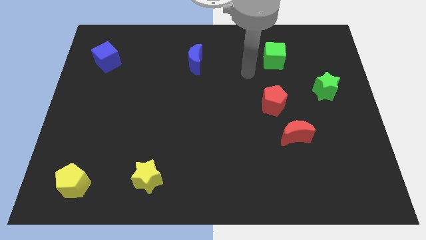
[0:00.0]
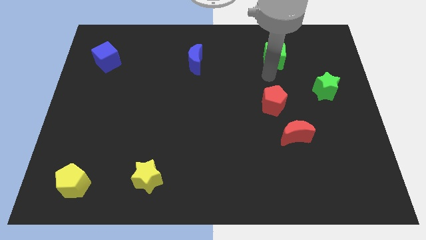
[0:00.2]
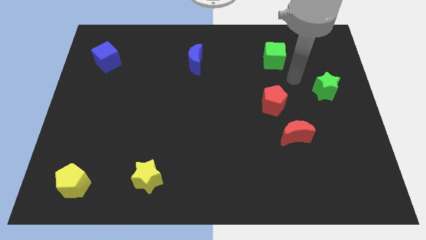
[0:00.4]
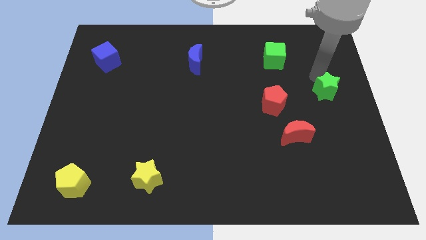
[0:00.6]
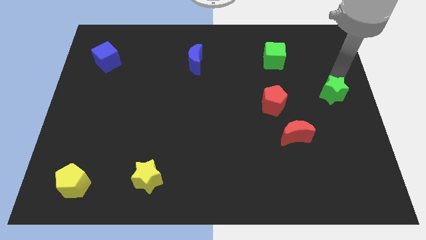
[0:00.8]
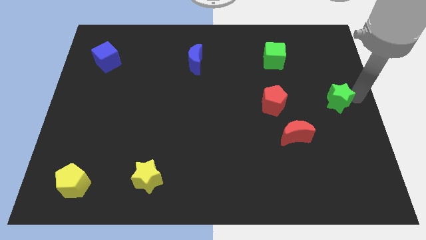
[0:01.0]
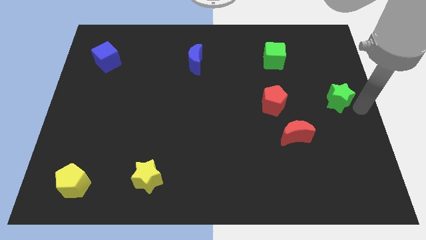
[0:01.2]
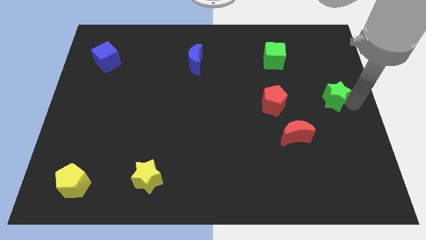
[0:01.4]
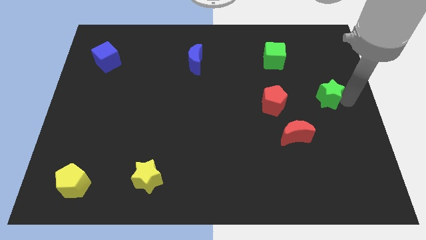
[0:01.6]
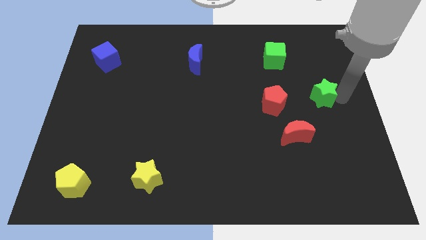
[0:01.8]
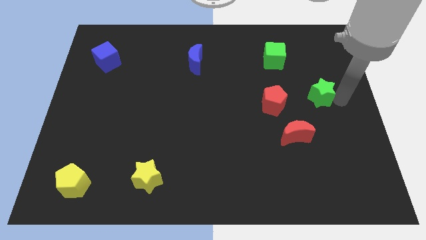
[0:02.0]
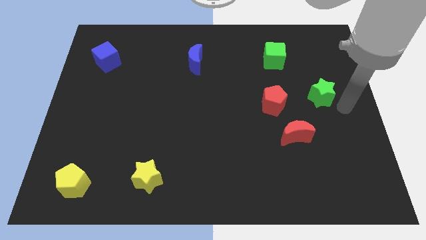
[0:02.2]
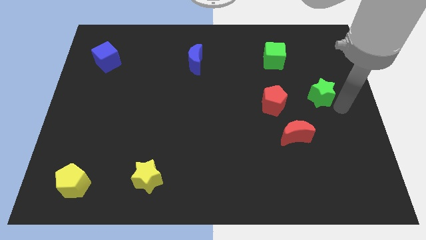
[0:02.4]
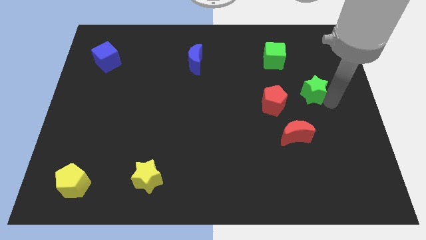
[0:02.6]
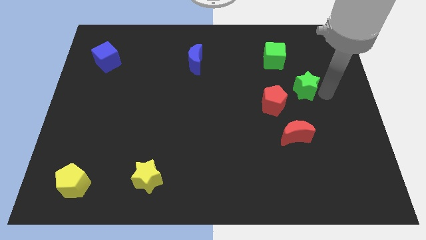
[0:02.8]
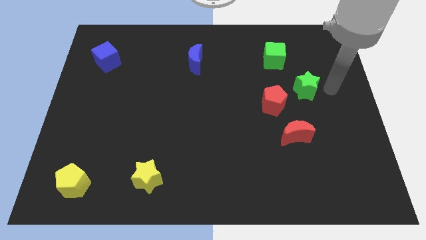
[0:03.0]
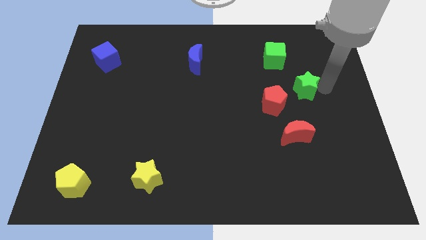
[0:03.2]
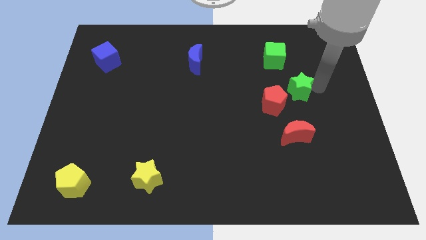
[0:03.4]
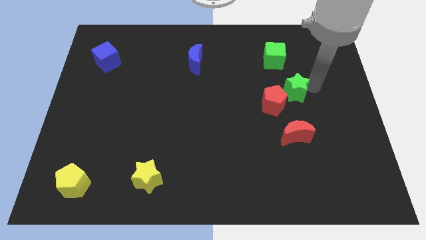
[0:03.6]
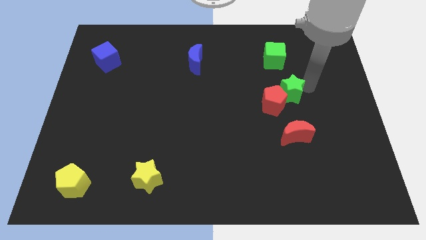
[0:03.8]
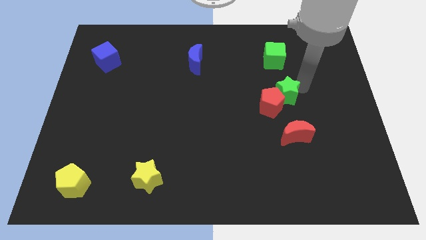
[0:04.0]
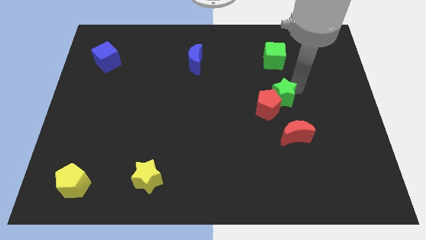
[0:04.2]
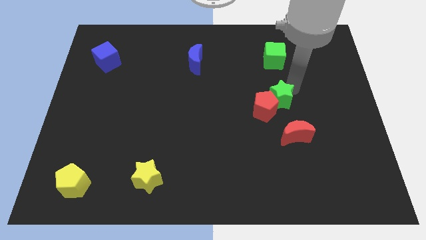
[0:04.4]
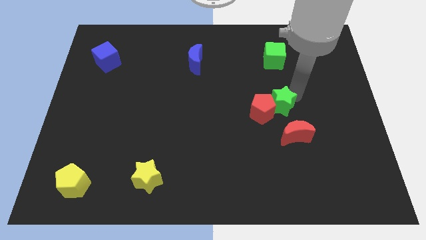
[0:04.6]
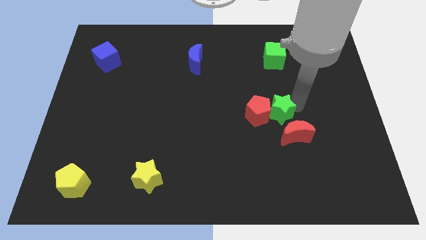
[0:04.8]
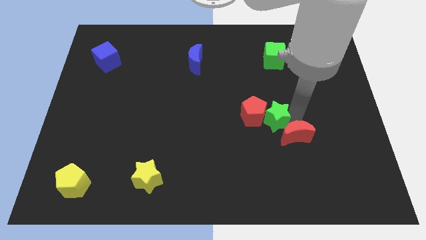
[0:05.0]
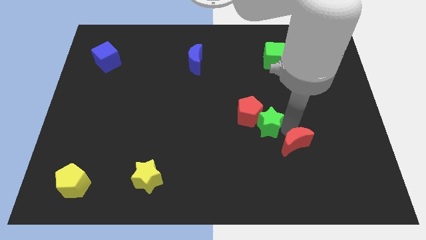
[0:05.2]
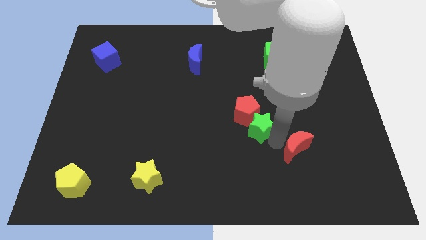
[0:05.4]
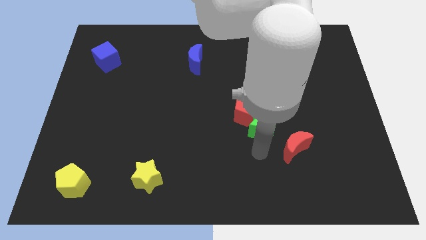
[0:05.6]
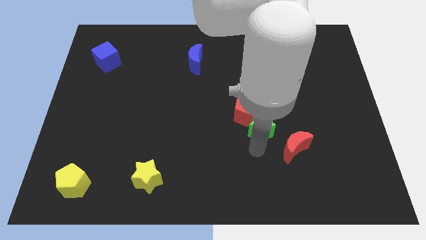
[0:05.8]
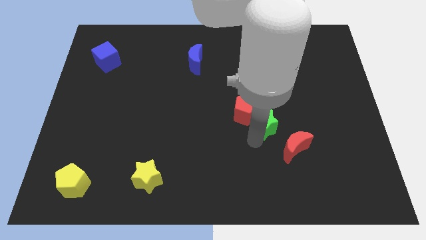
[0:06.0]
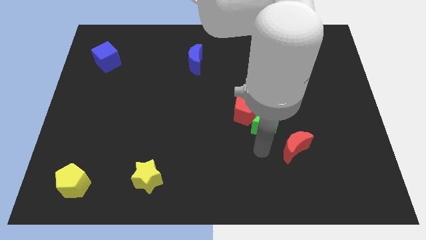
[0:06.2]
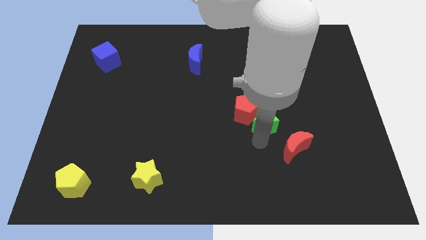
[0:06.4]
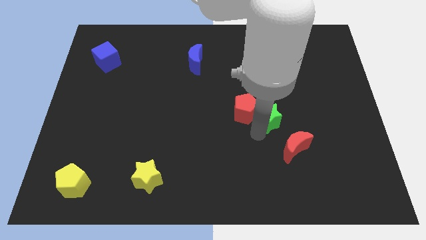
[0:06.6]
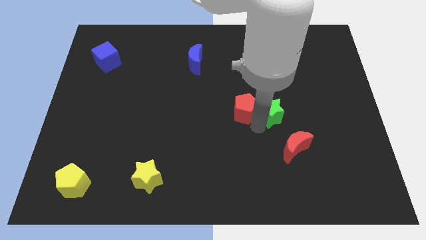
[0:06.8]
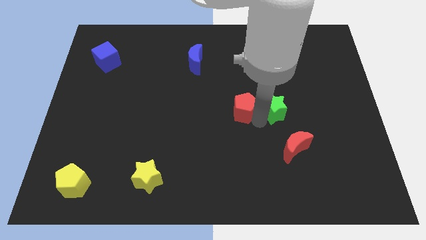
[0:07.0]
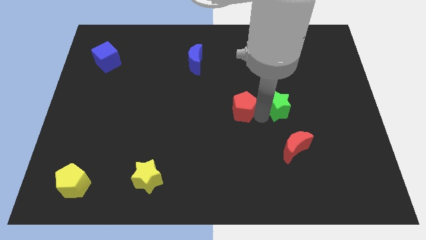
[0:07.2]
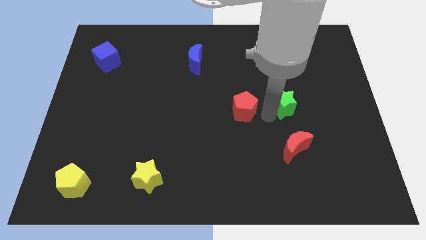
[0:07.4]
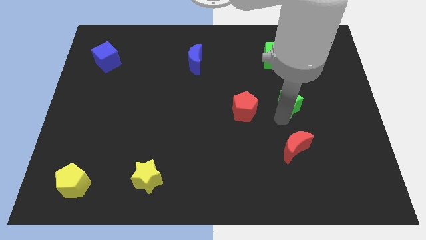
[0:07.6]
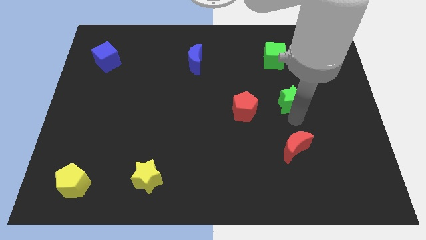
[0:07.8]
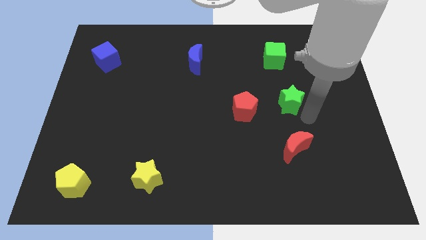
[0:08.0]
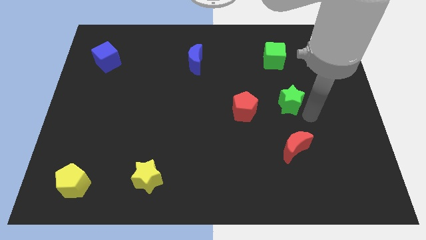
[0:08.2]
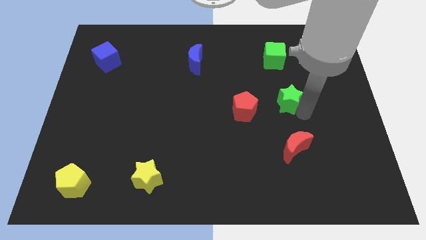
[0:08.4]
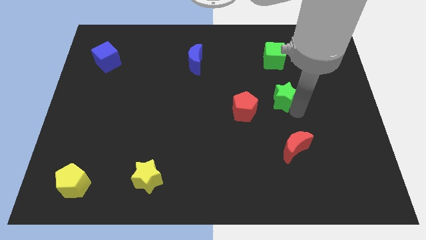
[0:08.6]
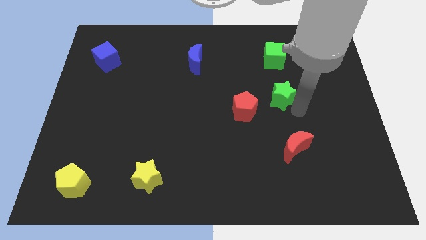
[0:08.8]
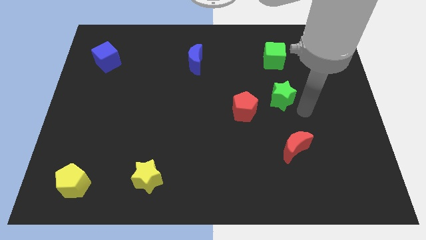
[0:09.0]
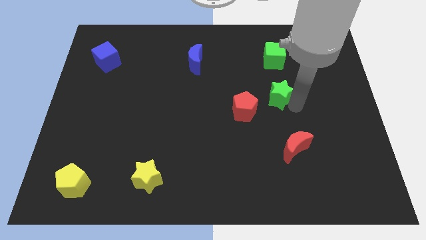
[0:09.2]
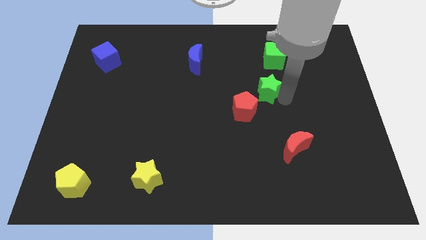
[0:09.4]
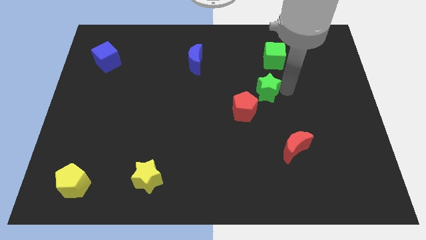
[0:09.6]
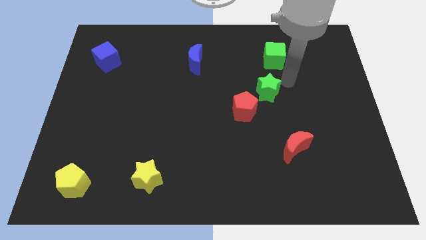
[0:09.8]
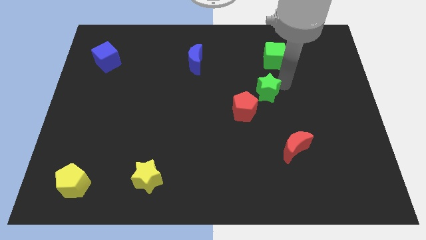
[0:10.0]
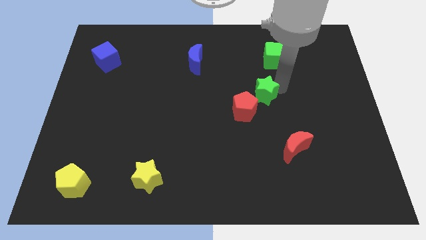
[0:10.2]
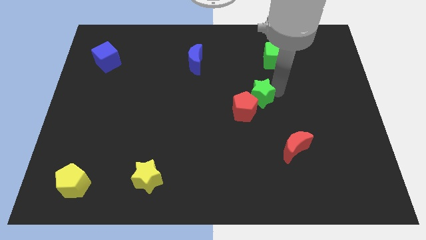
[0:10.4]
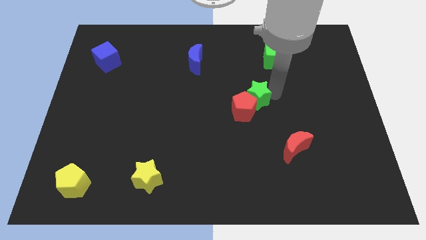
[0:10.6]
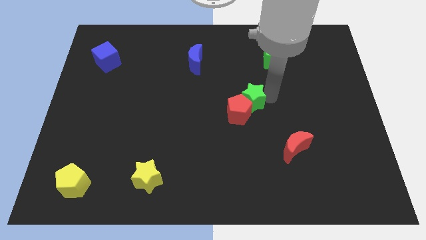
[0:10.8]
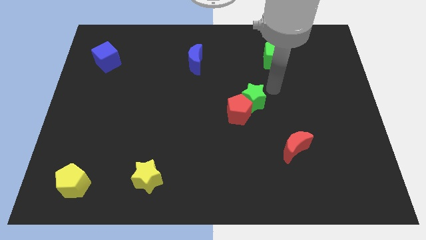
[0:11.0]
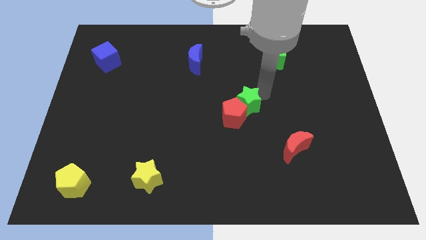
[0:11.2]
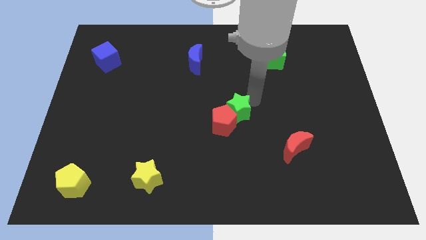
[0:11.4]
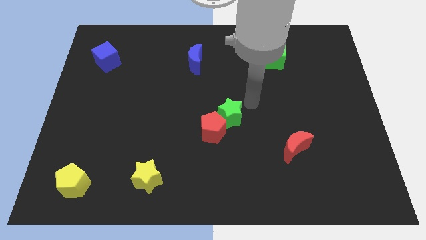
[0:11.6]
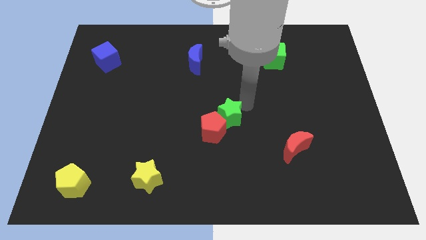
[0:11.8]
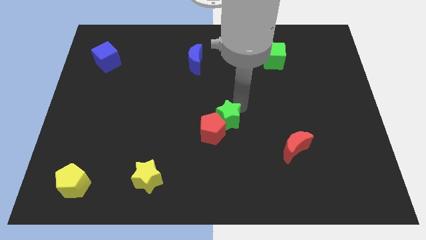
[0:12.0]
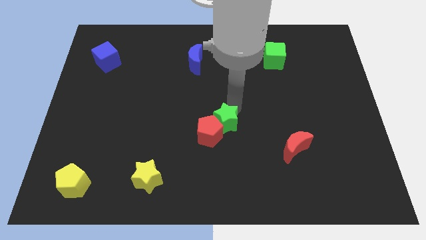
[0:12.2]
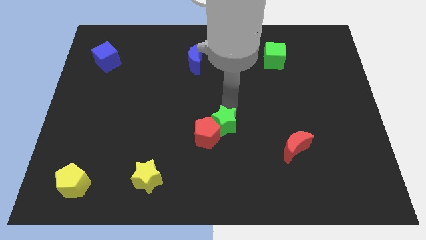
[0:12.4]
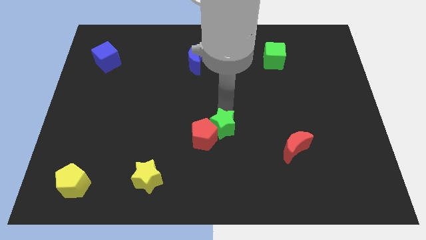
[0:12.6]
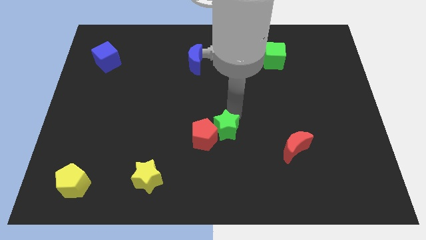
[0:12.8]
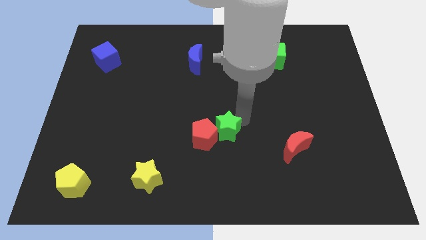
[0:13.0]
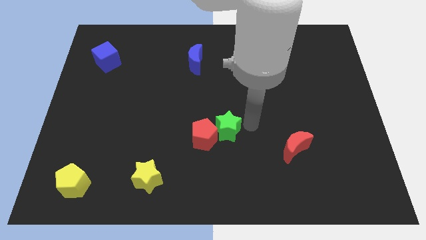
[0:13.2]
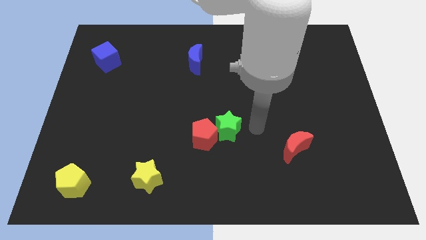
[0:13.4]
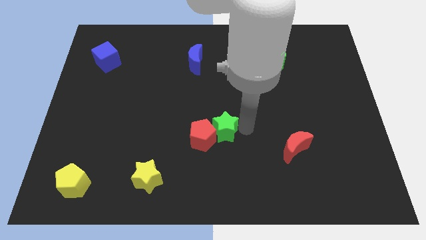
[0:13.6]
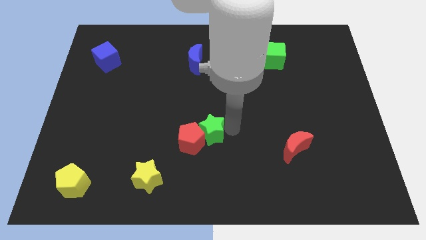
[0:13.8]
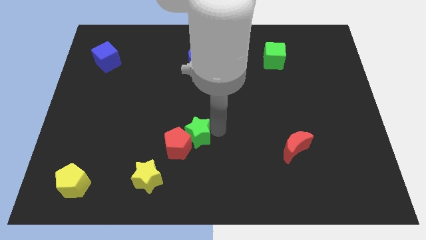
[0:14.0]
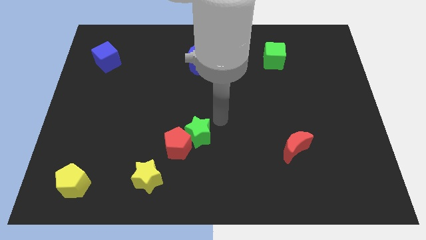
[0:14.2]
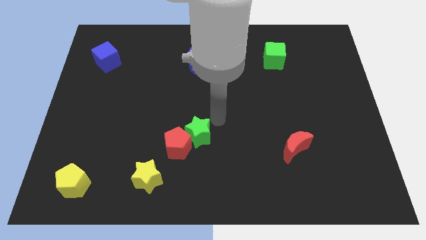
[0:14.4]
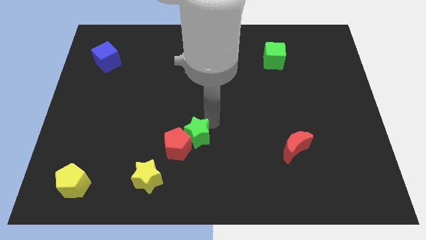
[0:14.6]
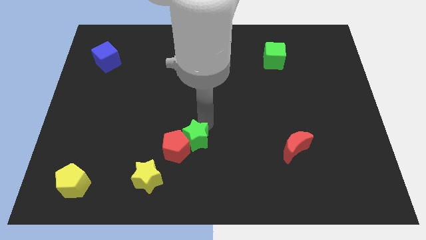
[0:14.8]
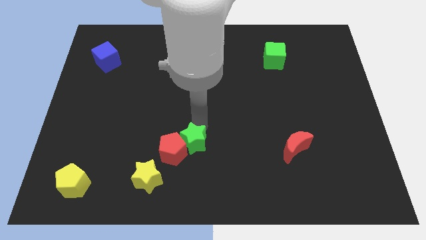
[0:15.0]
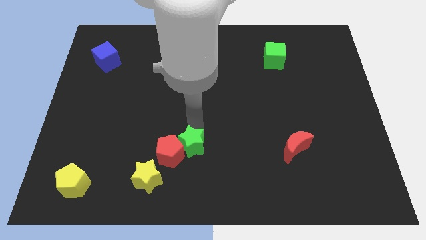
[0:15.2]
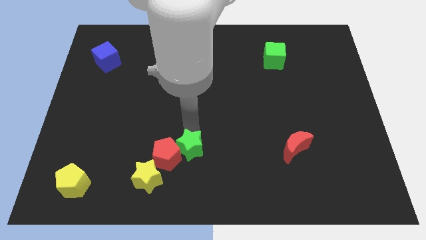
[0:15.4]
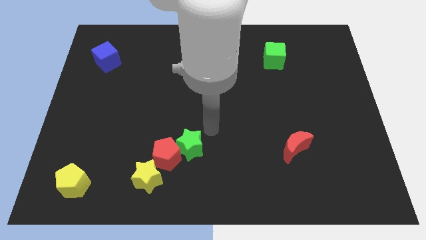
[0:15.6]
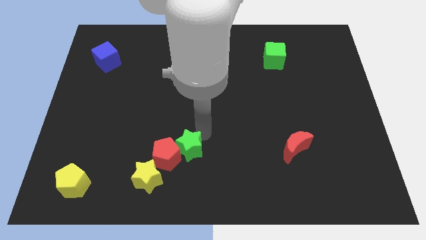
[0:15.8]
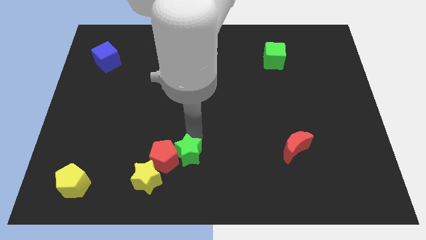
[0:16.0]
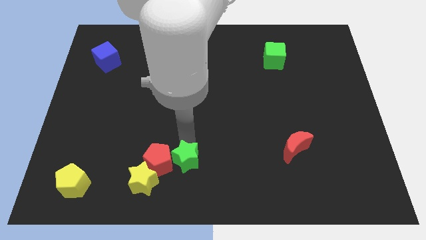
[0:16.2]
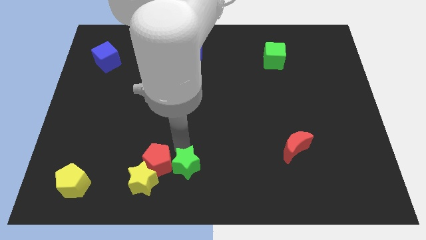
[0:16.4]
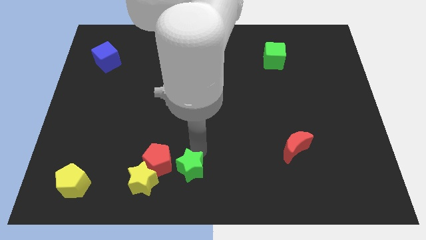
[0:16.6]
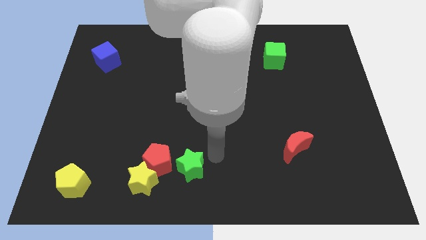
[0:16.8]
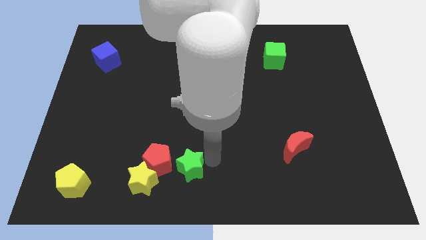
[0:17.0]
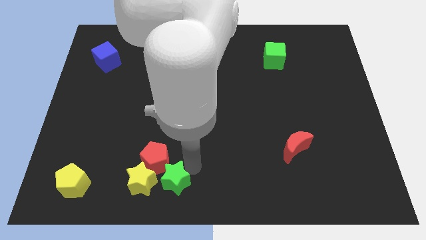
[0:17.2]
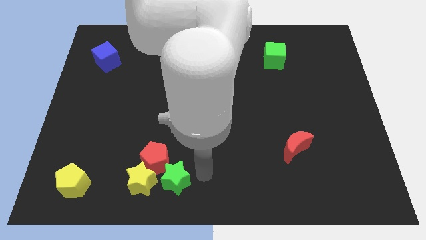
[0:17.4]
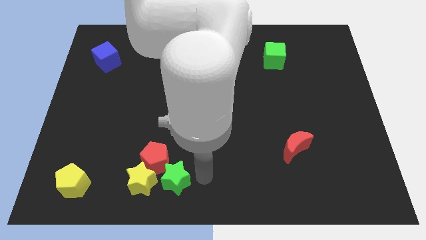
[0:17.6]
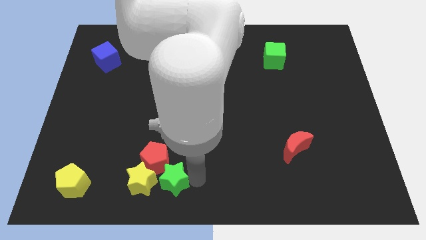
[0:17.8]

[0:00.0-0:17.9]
slide the green star to the yellow star
